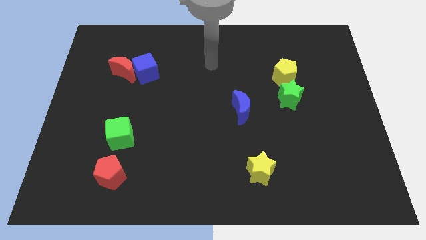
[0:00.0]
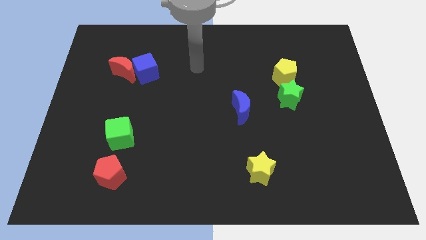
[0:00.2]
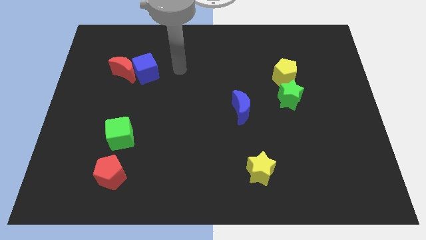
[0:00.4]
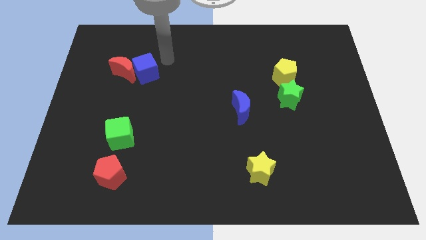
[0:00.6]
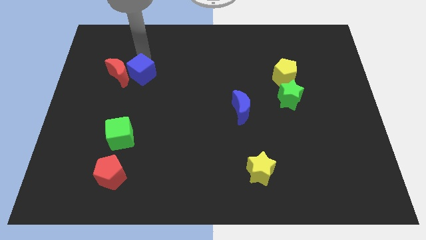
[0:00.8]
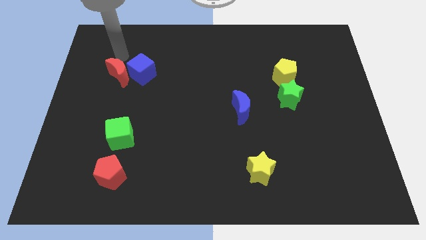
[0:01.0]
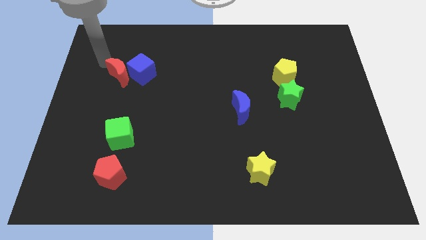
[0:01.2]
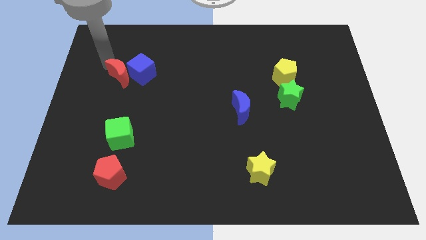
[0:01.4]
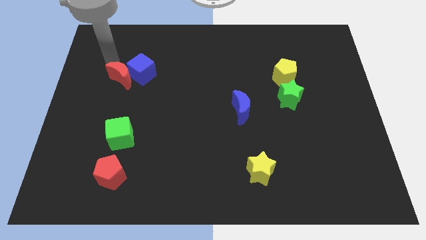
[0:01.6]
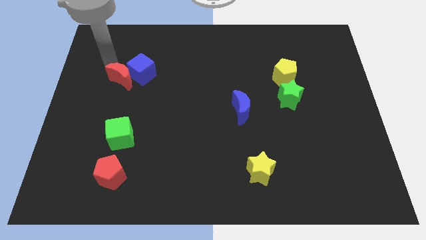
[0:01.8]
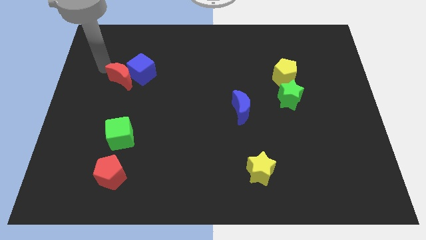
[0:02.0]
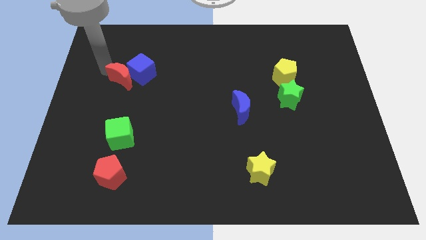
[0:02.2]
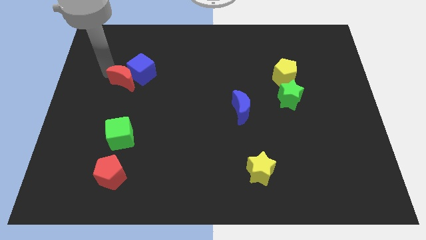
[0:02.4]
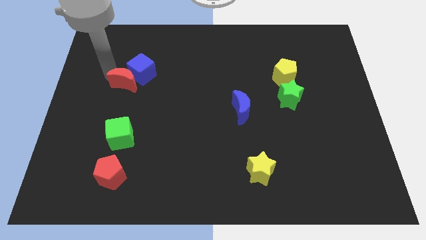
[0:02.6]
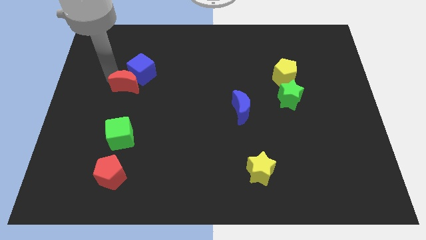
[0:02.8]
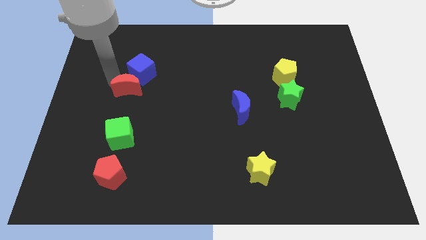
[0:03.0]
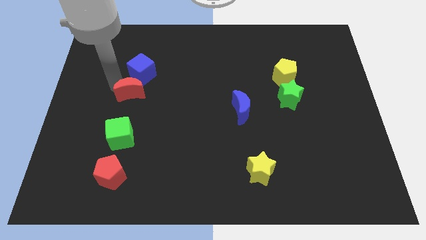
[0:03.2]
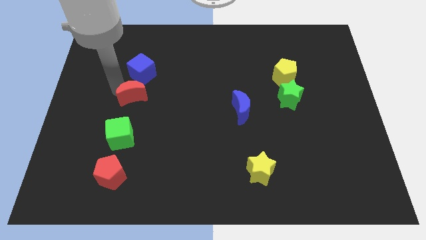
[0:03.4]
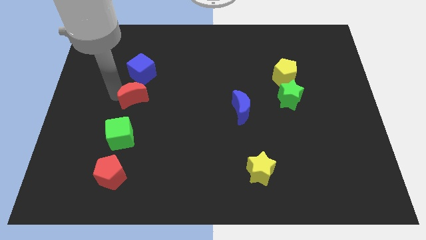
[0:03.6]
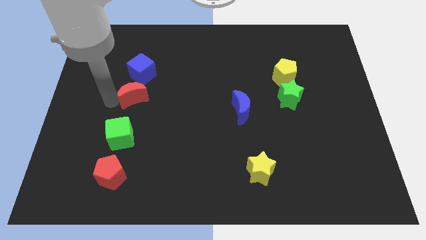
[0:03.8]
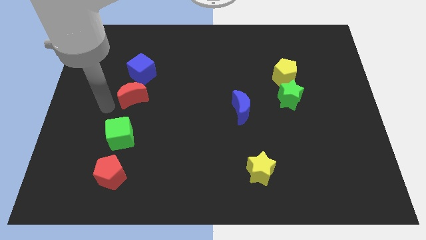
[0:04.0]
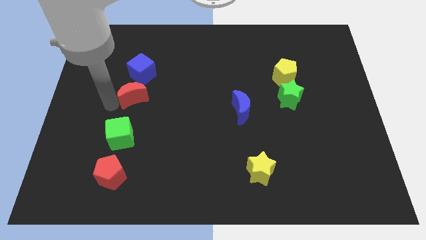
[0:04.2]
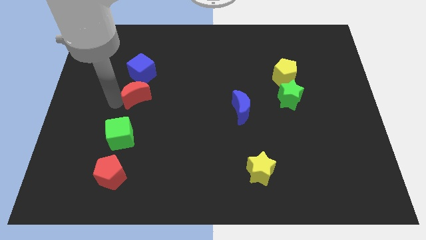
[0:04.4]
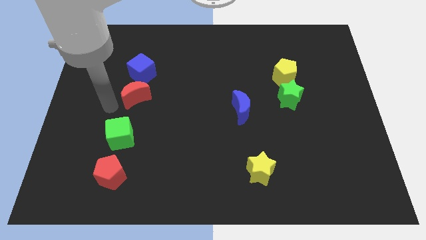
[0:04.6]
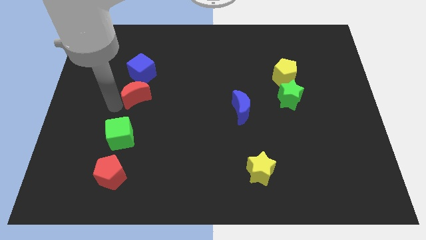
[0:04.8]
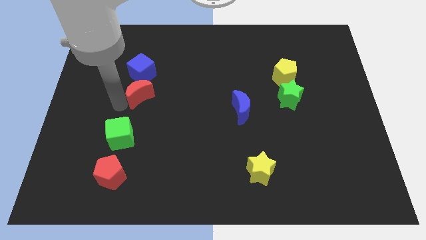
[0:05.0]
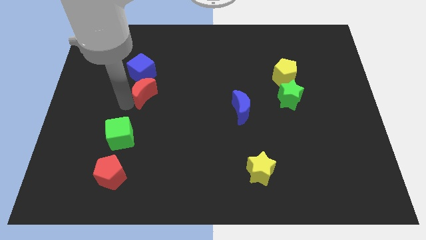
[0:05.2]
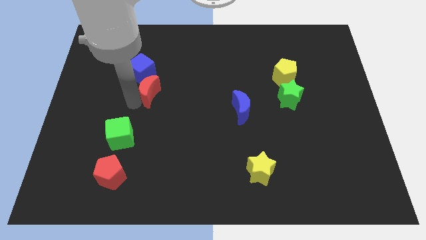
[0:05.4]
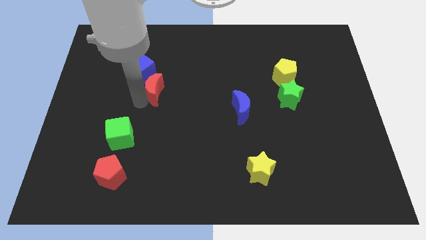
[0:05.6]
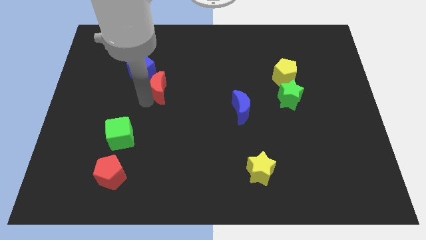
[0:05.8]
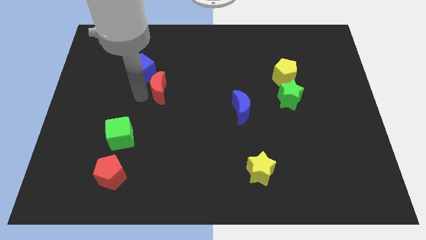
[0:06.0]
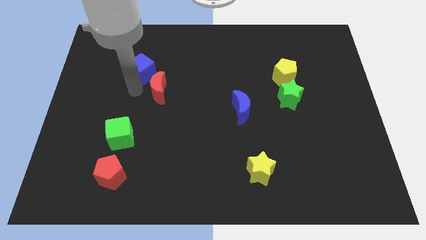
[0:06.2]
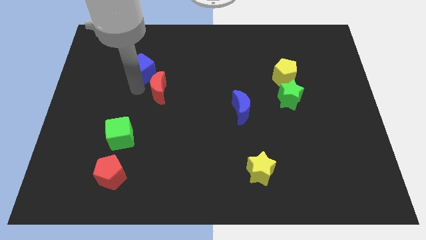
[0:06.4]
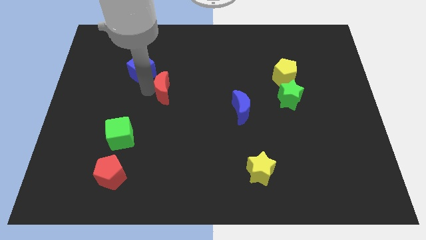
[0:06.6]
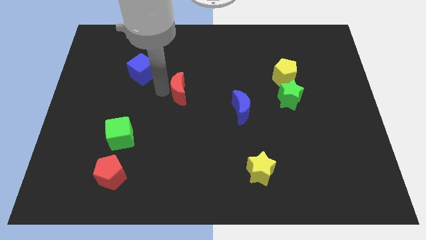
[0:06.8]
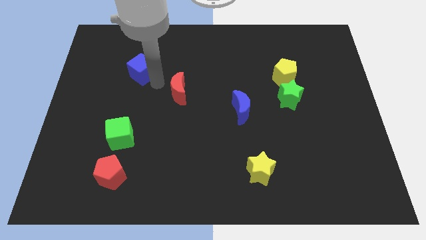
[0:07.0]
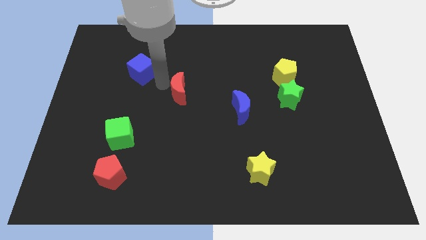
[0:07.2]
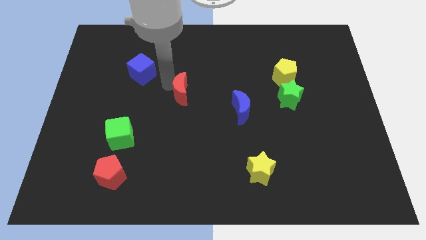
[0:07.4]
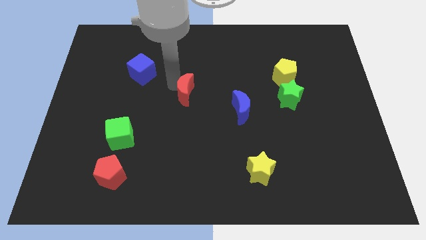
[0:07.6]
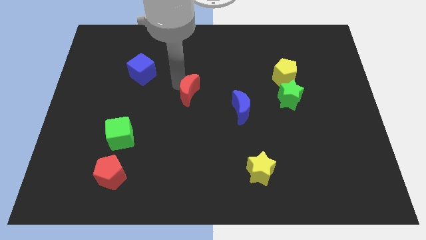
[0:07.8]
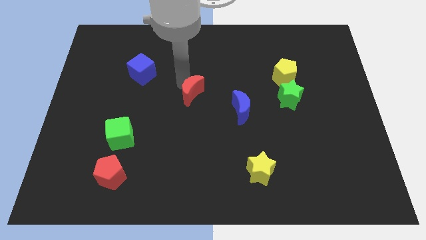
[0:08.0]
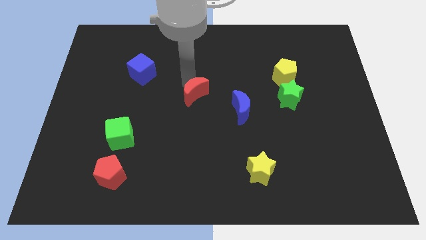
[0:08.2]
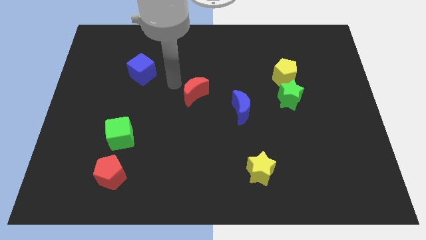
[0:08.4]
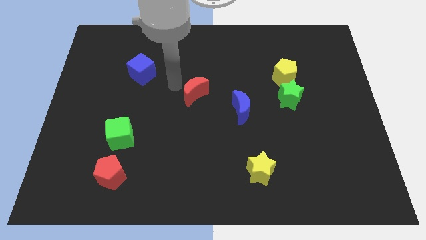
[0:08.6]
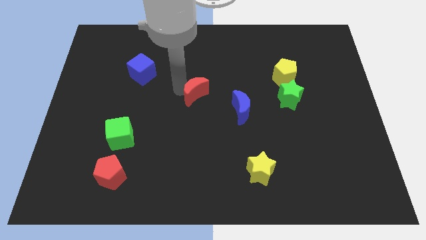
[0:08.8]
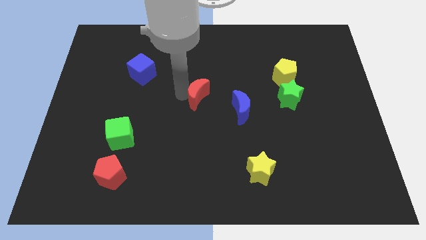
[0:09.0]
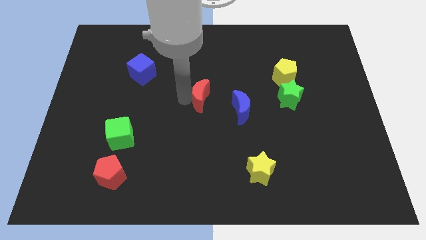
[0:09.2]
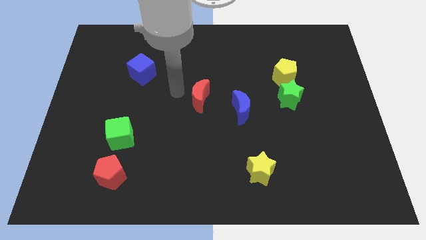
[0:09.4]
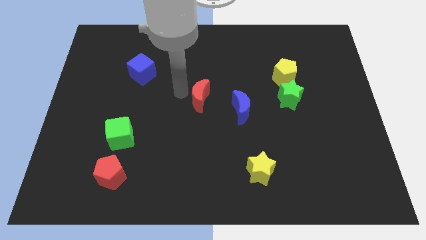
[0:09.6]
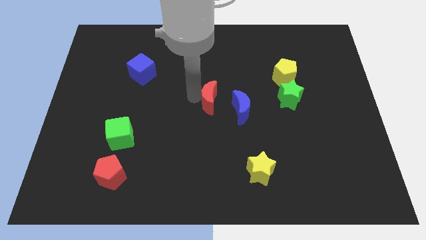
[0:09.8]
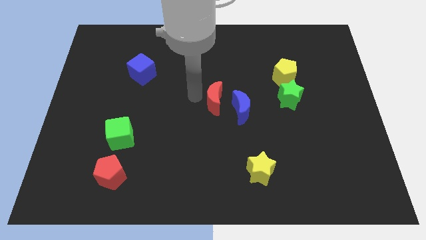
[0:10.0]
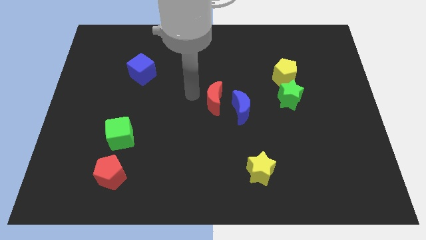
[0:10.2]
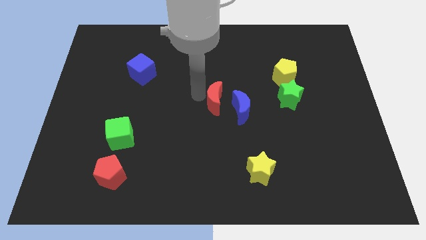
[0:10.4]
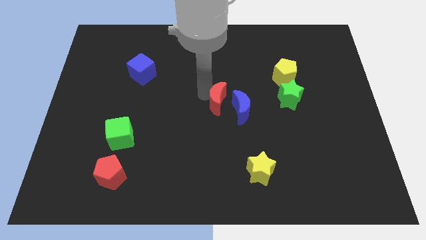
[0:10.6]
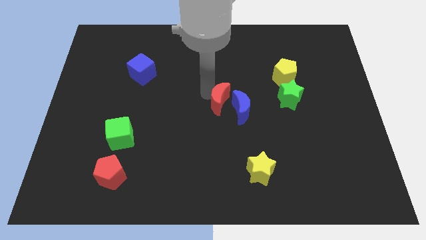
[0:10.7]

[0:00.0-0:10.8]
slide the red moon towards the blue moon

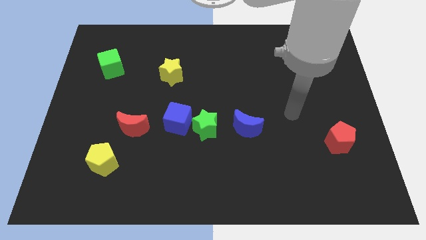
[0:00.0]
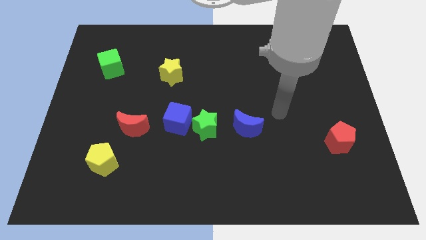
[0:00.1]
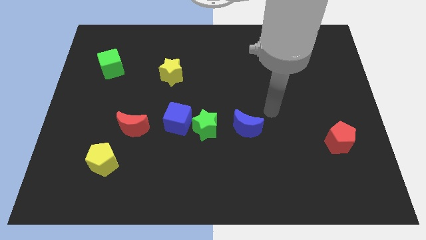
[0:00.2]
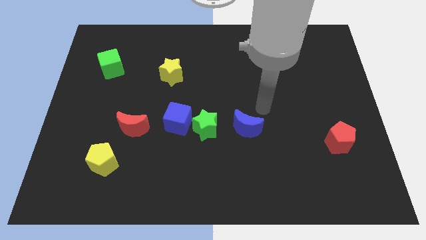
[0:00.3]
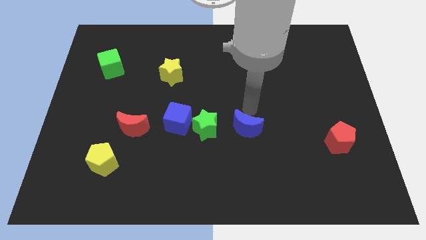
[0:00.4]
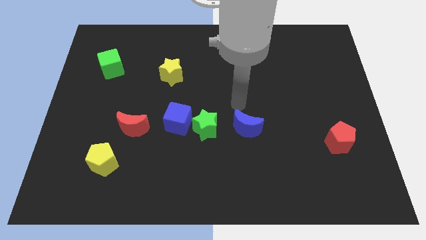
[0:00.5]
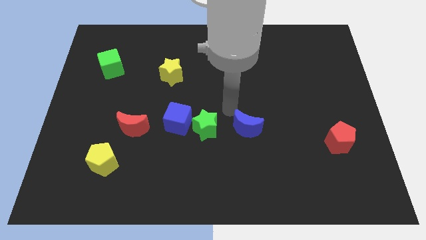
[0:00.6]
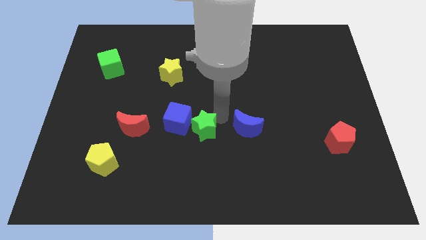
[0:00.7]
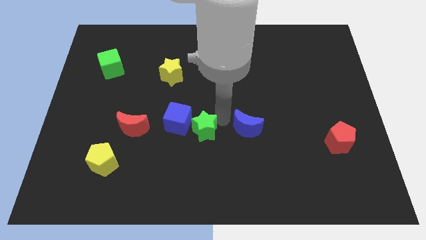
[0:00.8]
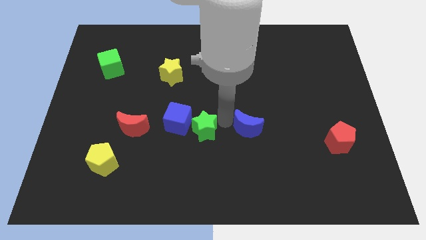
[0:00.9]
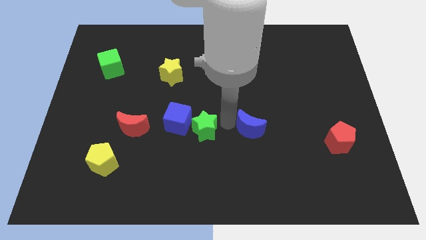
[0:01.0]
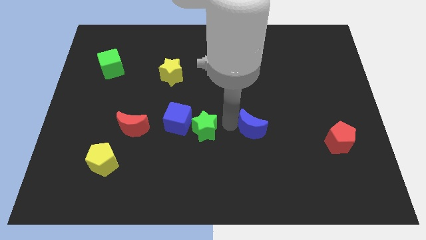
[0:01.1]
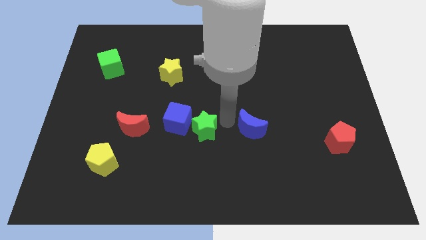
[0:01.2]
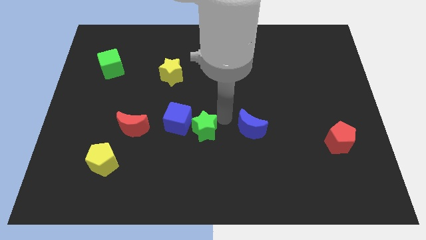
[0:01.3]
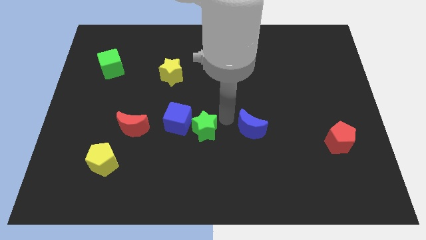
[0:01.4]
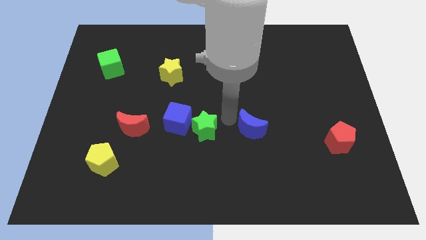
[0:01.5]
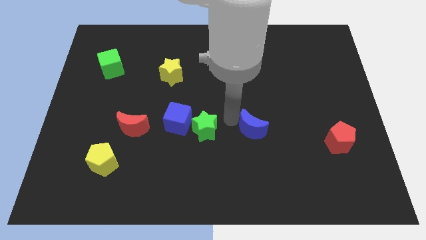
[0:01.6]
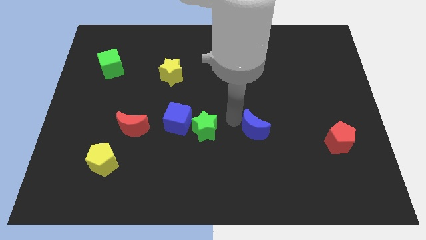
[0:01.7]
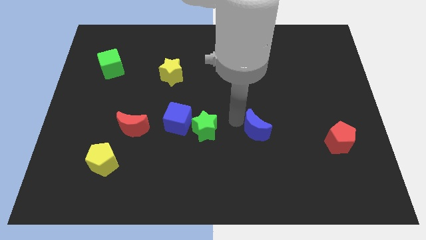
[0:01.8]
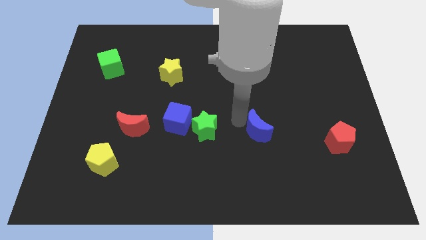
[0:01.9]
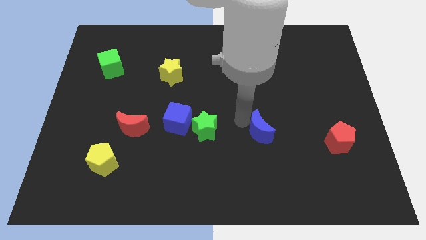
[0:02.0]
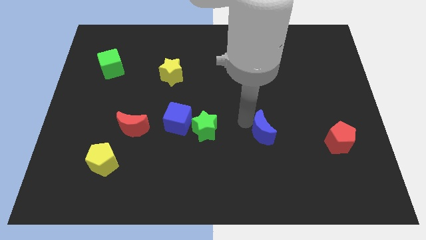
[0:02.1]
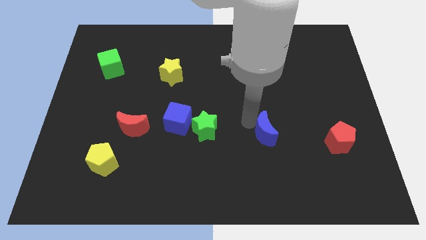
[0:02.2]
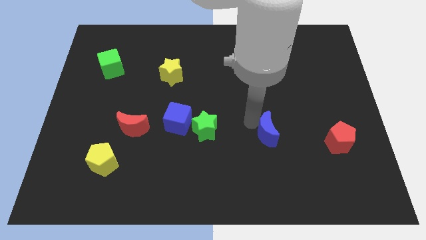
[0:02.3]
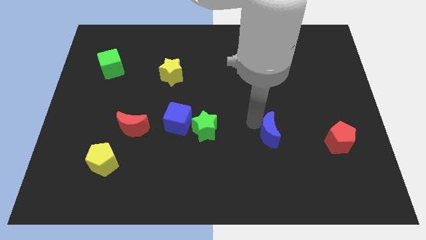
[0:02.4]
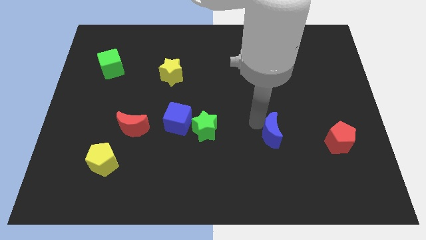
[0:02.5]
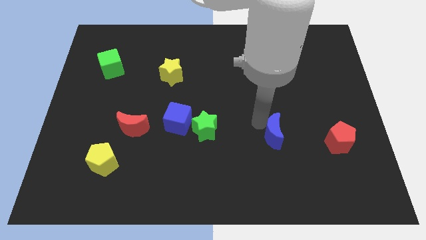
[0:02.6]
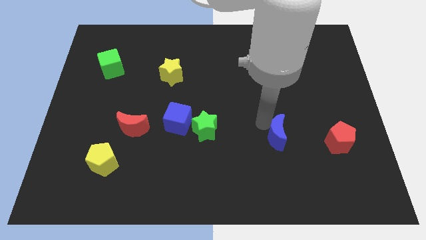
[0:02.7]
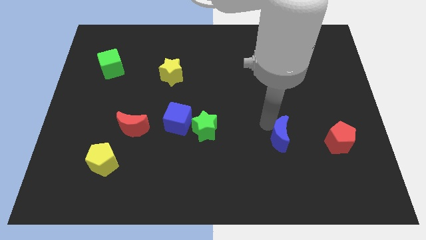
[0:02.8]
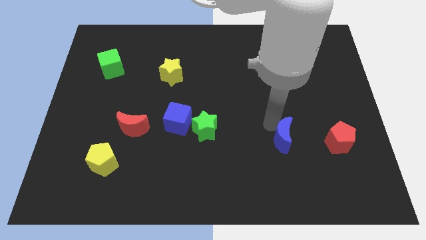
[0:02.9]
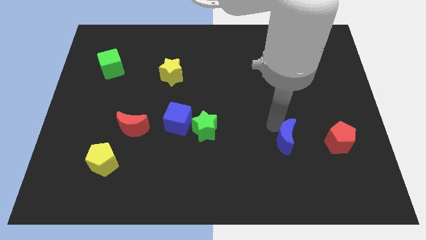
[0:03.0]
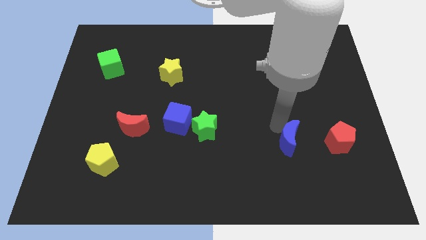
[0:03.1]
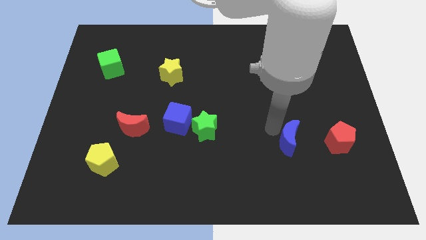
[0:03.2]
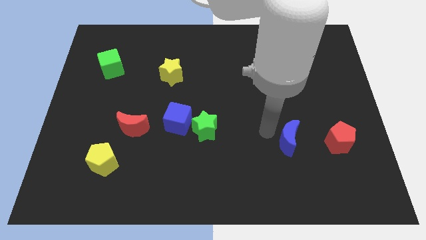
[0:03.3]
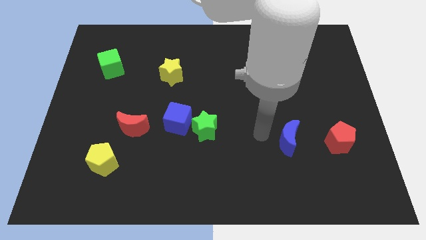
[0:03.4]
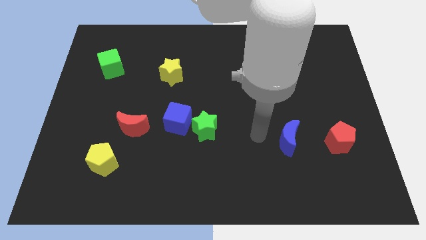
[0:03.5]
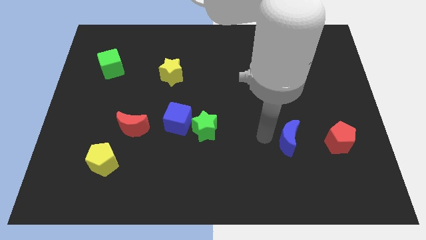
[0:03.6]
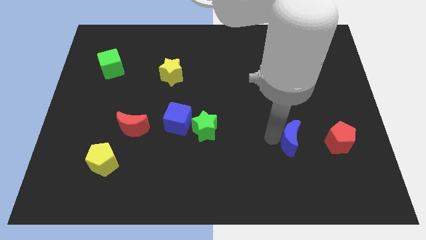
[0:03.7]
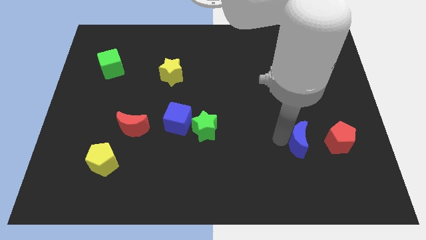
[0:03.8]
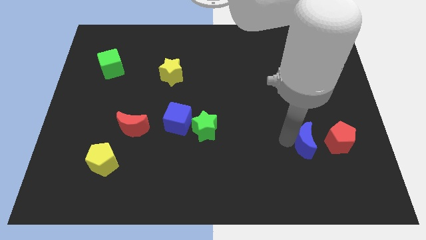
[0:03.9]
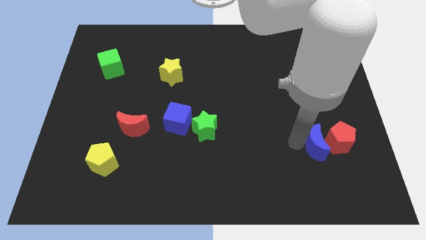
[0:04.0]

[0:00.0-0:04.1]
move the blue moon close to the red pentagon
